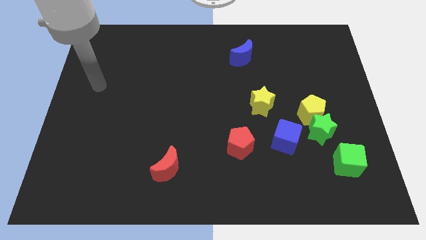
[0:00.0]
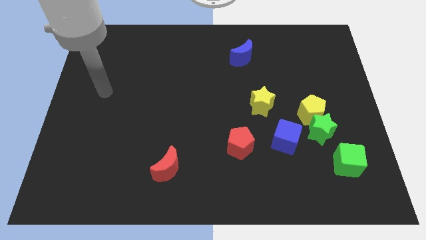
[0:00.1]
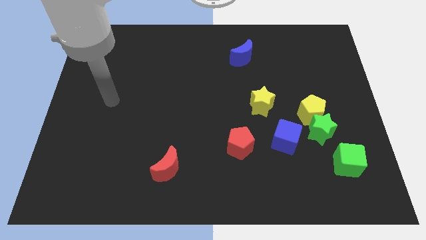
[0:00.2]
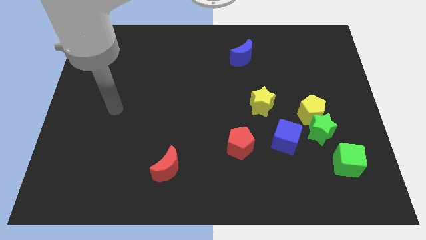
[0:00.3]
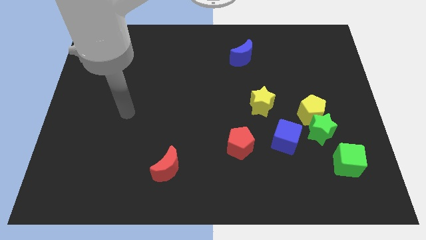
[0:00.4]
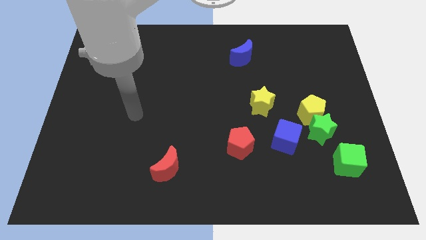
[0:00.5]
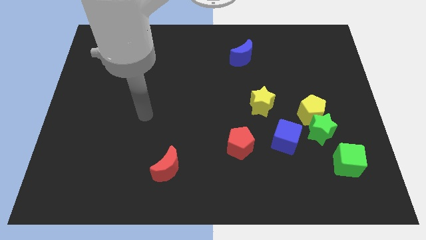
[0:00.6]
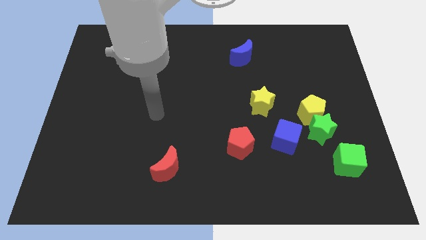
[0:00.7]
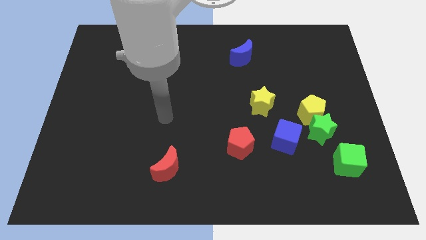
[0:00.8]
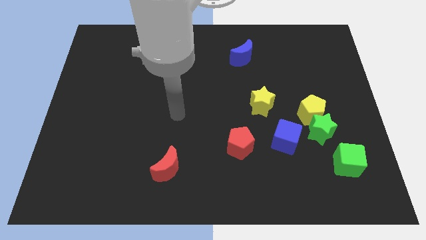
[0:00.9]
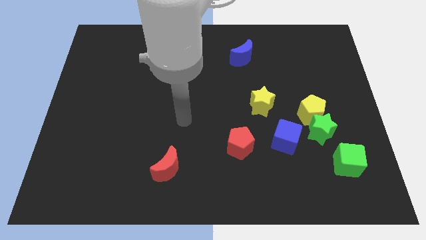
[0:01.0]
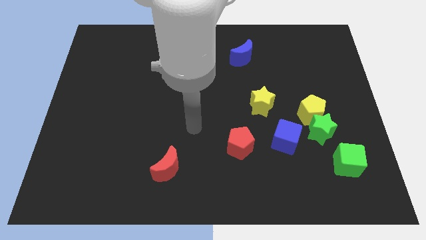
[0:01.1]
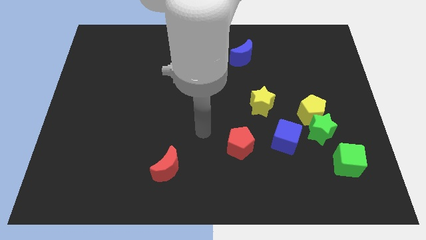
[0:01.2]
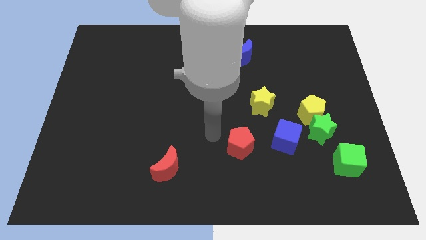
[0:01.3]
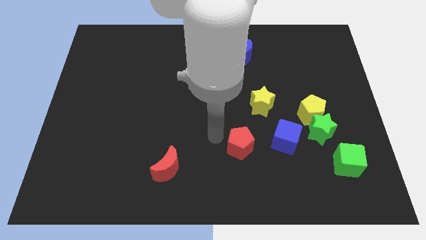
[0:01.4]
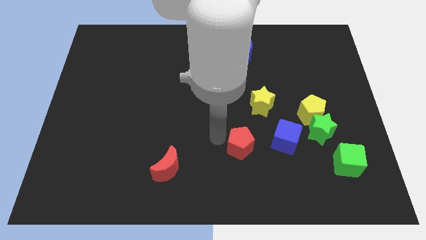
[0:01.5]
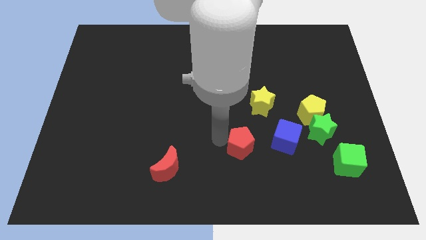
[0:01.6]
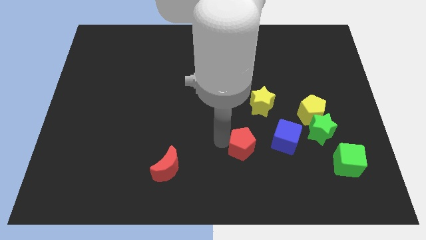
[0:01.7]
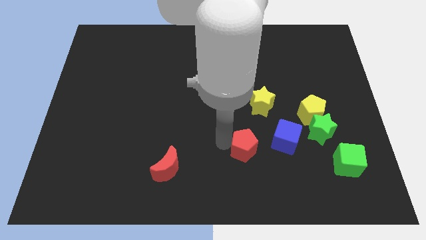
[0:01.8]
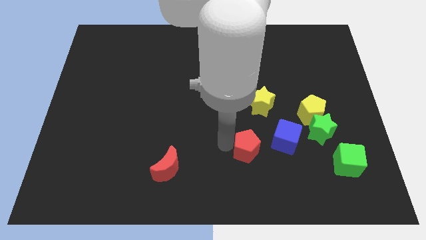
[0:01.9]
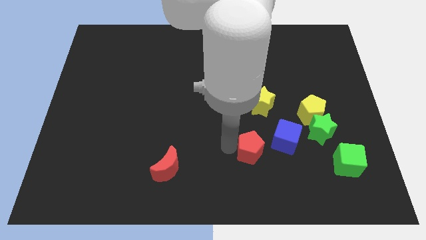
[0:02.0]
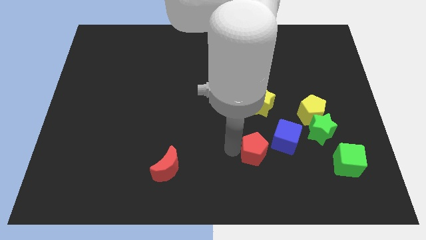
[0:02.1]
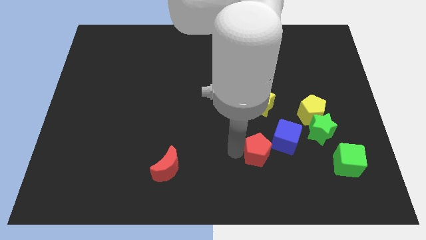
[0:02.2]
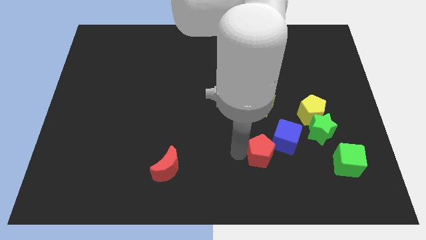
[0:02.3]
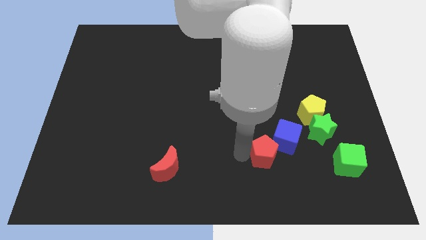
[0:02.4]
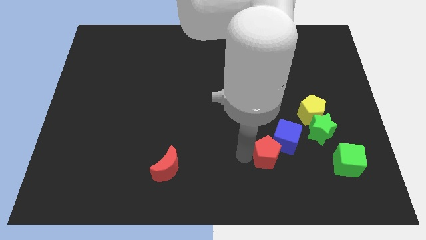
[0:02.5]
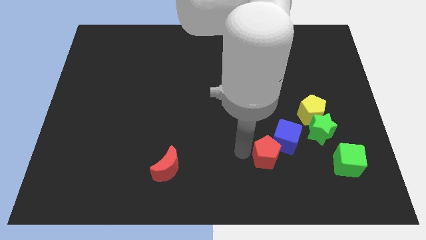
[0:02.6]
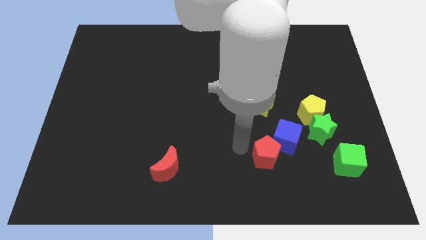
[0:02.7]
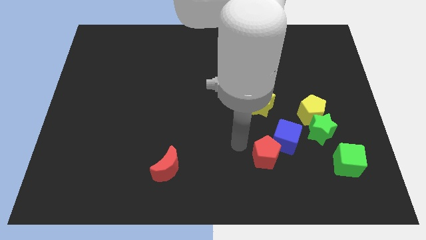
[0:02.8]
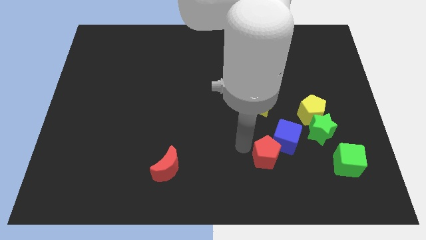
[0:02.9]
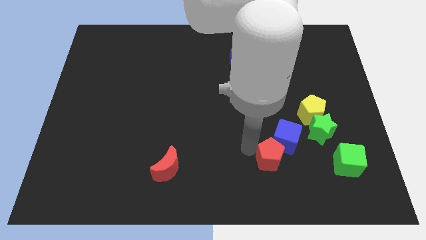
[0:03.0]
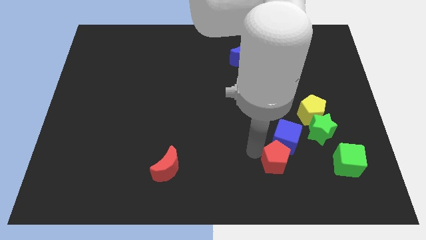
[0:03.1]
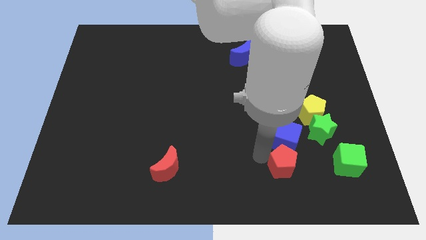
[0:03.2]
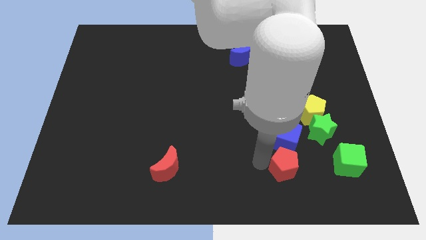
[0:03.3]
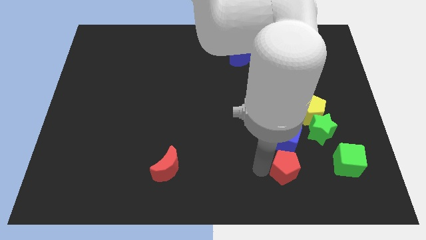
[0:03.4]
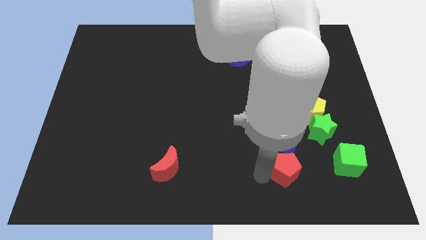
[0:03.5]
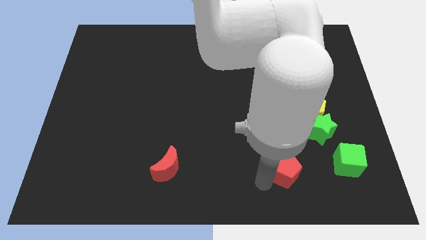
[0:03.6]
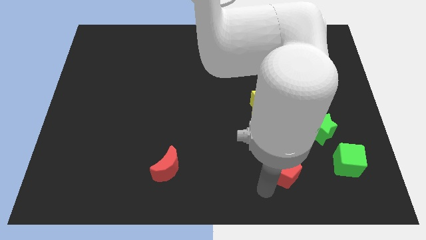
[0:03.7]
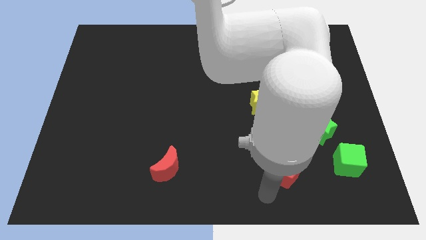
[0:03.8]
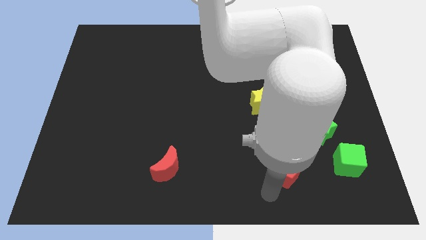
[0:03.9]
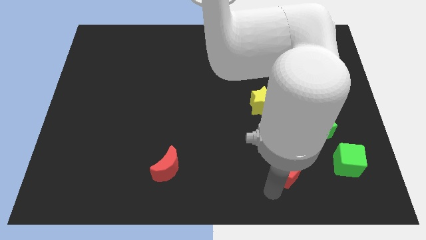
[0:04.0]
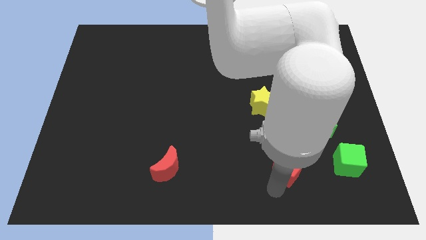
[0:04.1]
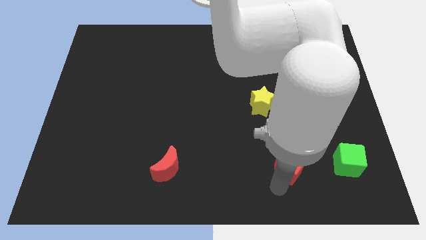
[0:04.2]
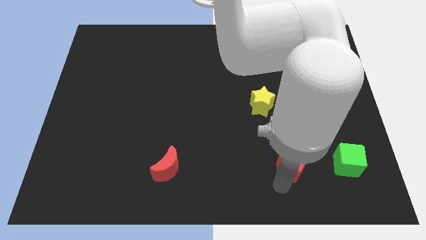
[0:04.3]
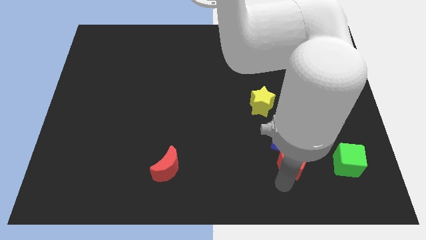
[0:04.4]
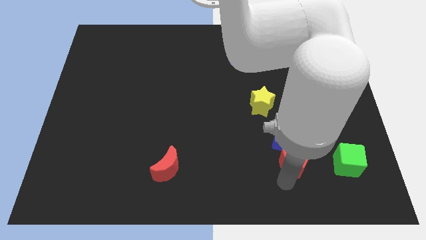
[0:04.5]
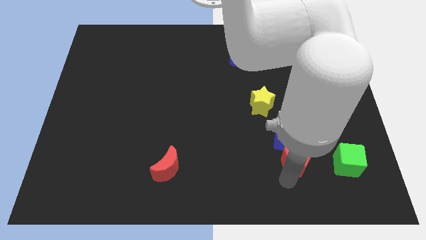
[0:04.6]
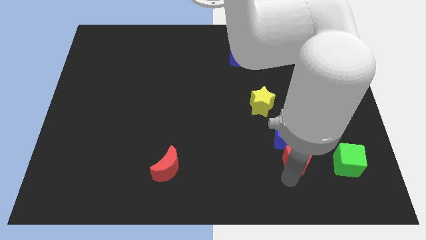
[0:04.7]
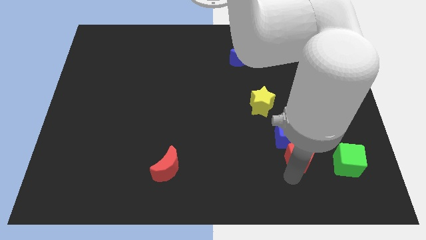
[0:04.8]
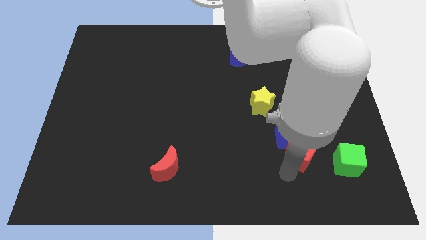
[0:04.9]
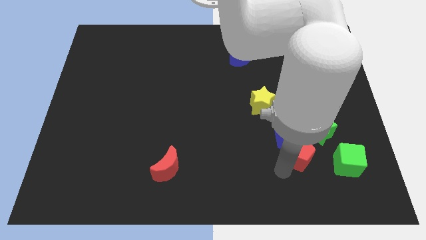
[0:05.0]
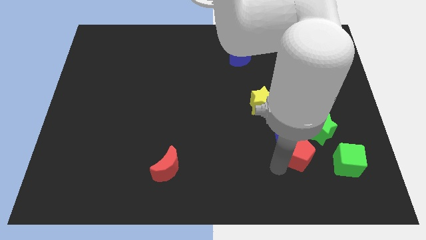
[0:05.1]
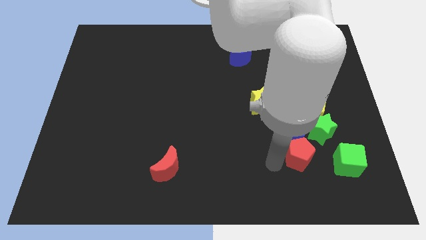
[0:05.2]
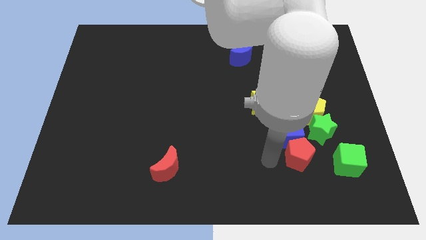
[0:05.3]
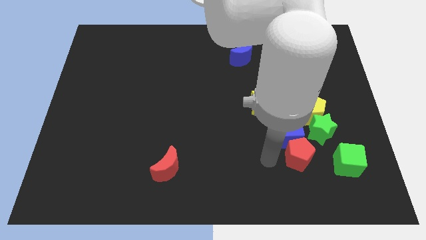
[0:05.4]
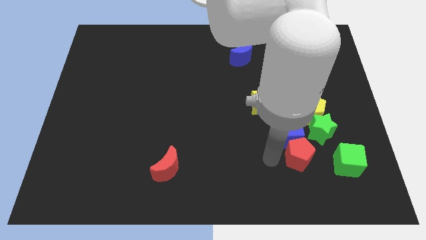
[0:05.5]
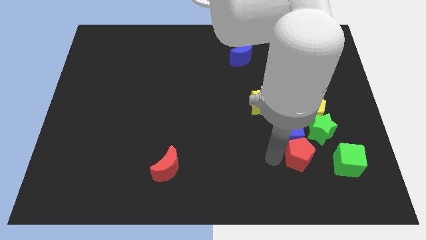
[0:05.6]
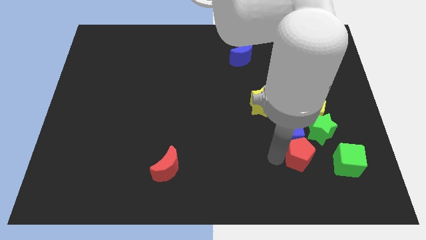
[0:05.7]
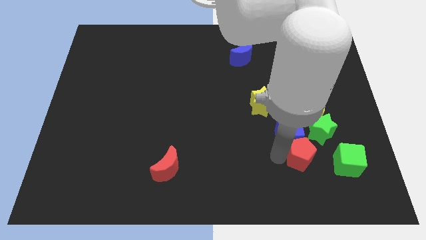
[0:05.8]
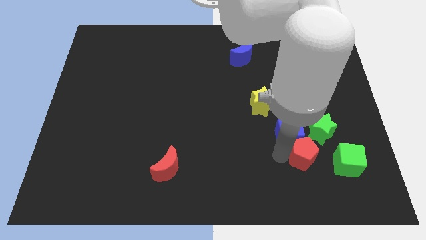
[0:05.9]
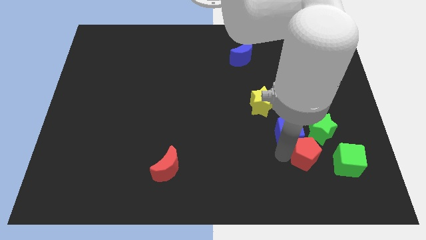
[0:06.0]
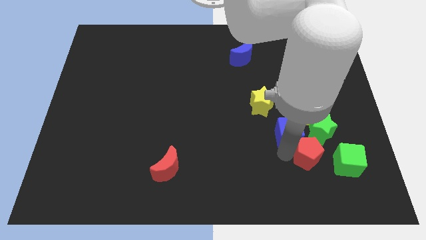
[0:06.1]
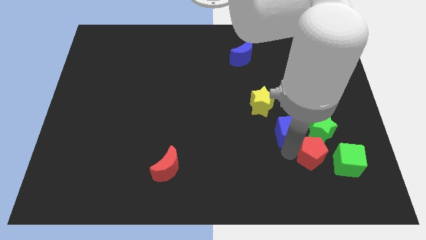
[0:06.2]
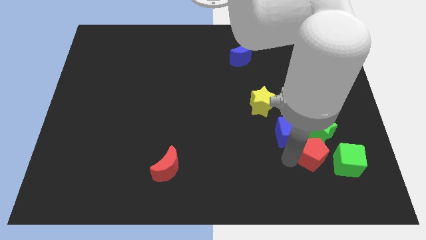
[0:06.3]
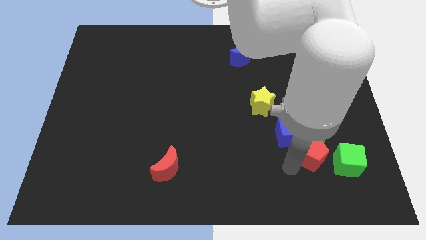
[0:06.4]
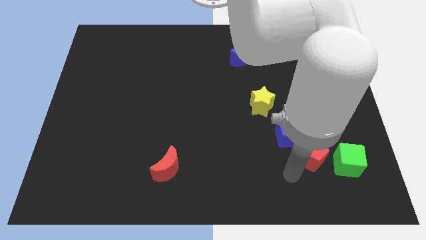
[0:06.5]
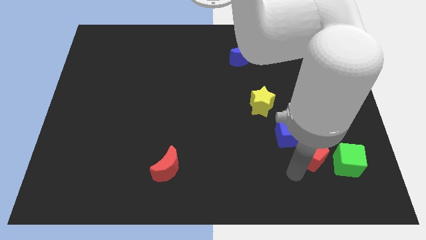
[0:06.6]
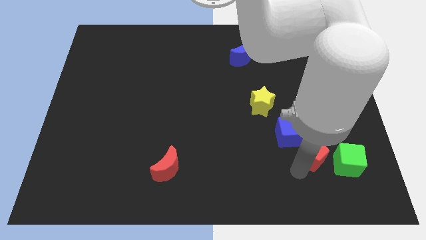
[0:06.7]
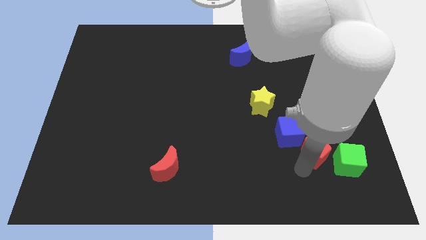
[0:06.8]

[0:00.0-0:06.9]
push the red pentagon to the right side of the blue cube

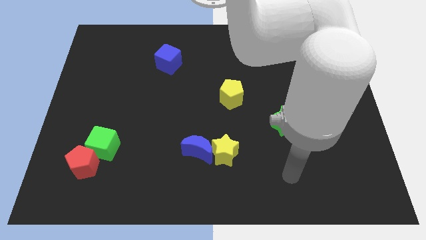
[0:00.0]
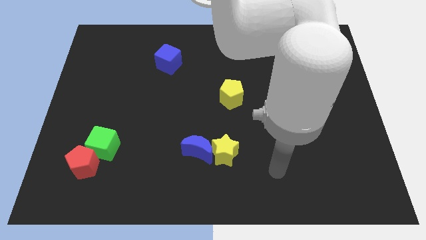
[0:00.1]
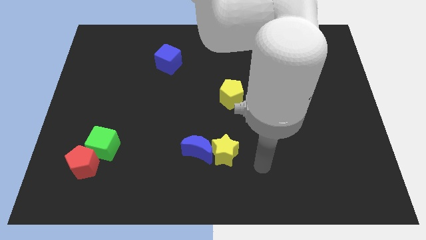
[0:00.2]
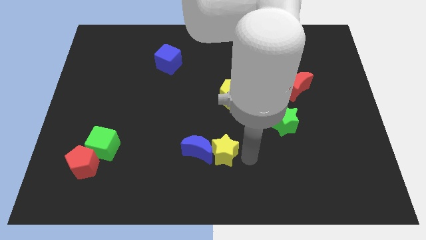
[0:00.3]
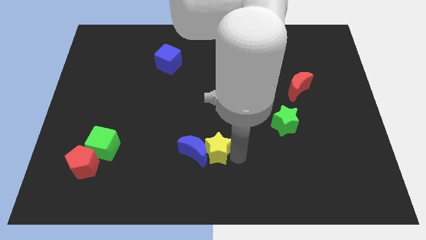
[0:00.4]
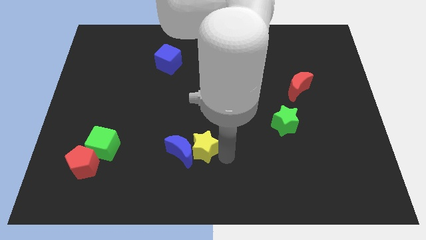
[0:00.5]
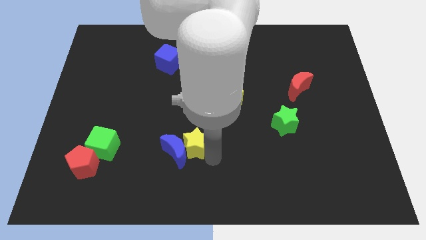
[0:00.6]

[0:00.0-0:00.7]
put the blue moon to the right side of the green cube
